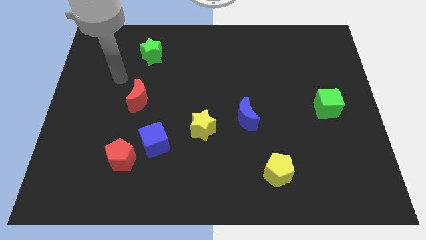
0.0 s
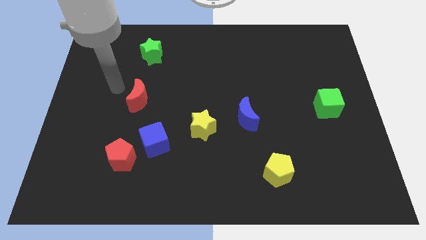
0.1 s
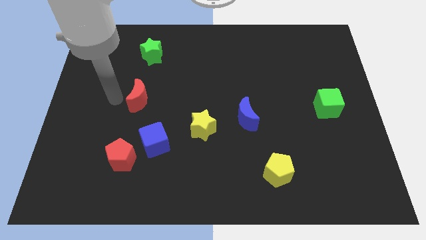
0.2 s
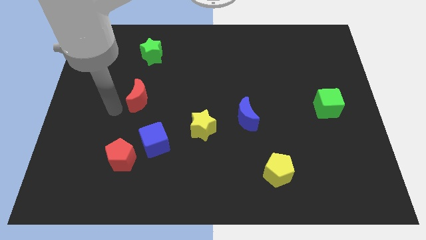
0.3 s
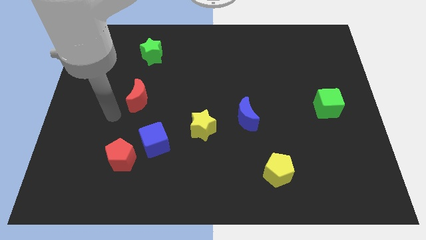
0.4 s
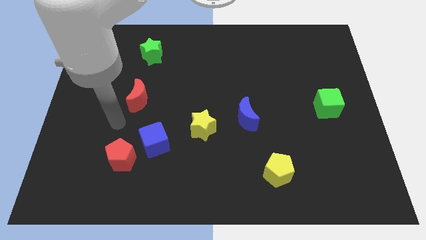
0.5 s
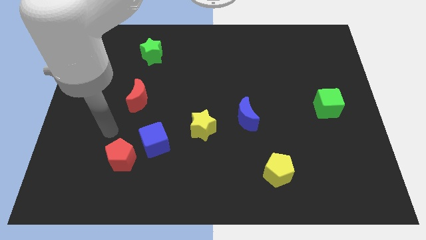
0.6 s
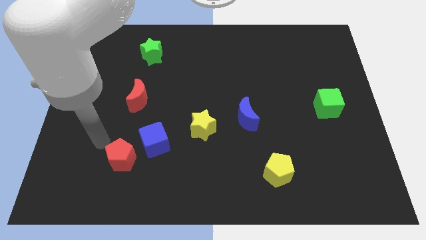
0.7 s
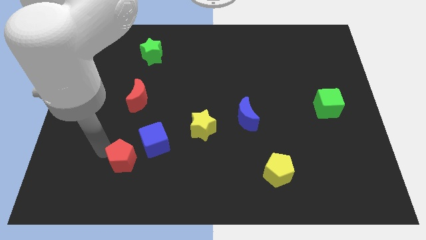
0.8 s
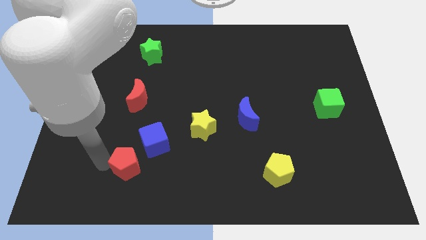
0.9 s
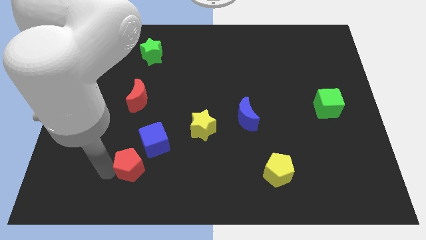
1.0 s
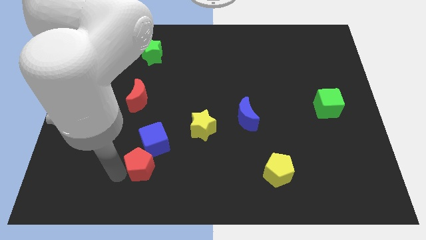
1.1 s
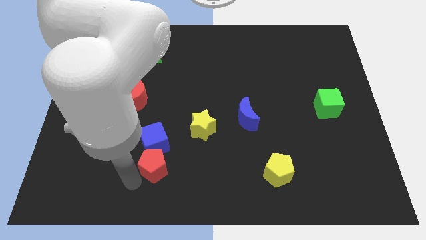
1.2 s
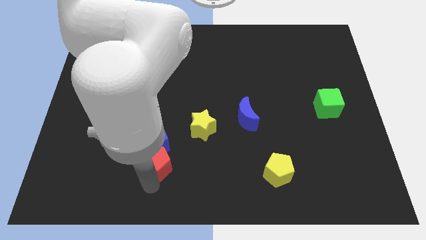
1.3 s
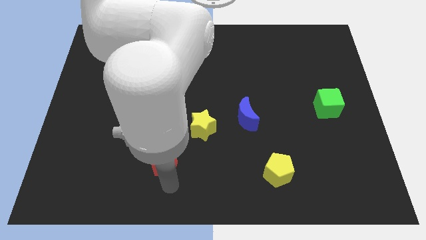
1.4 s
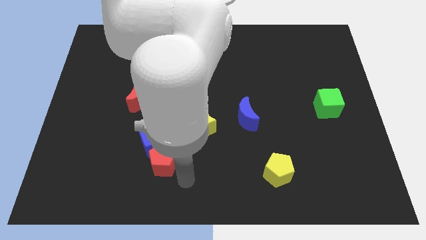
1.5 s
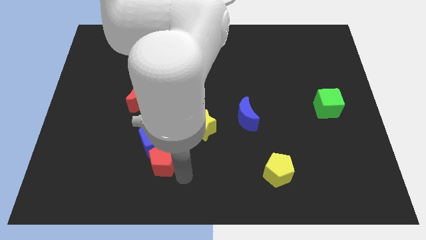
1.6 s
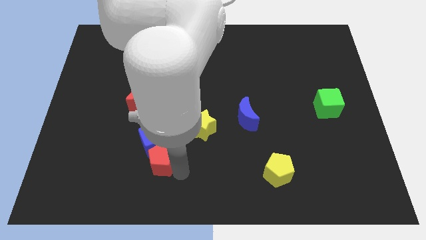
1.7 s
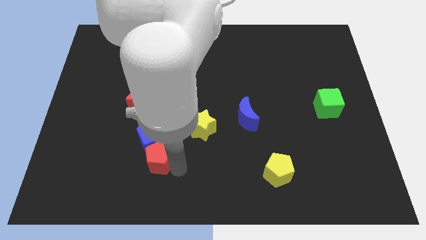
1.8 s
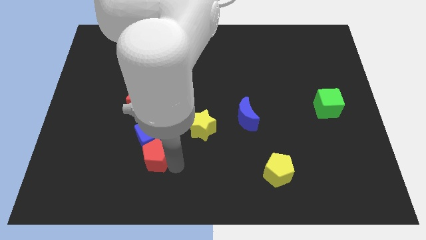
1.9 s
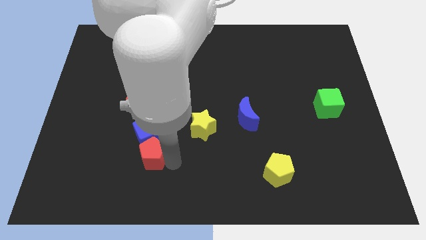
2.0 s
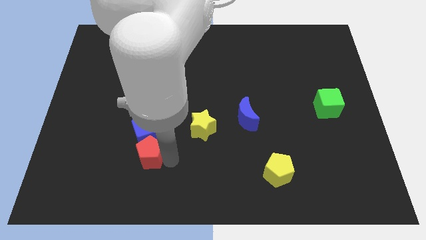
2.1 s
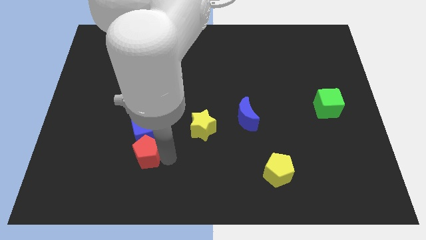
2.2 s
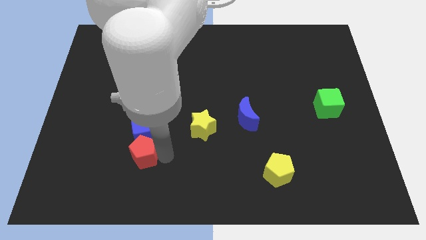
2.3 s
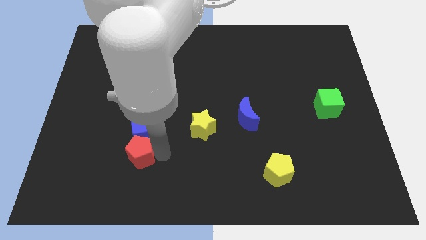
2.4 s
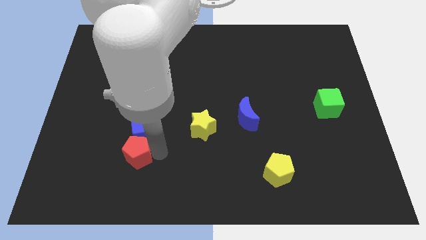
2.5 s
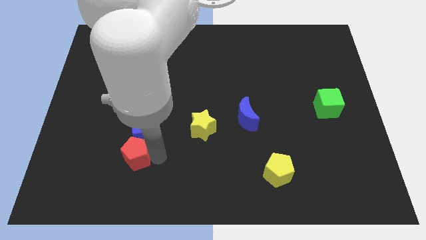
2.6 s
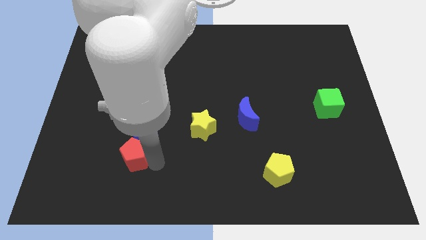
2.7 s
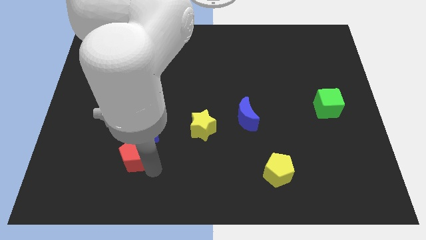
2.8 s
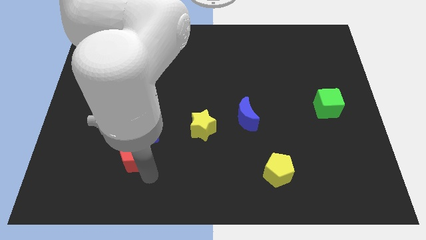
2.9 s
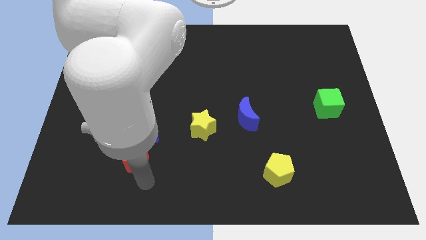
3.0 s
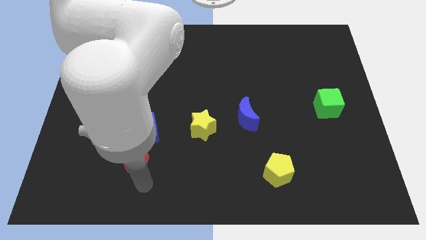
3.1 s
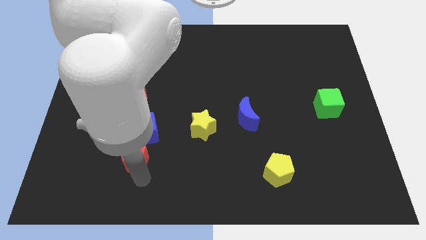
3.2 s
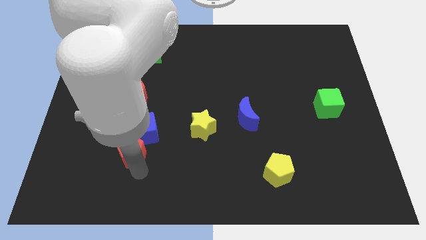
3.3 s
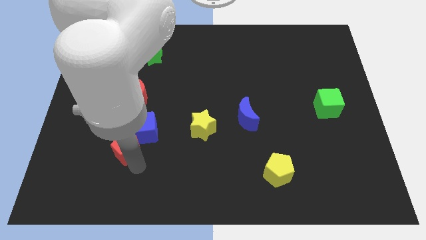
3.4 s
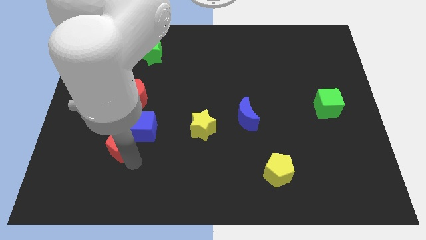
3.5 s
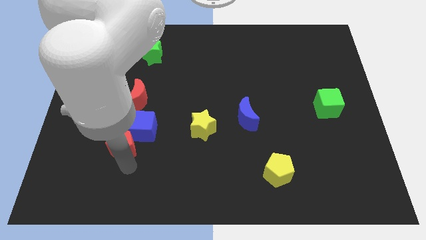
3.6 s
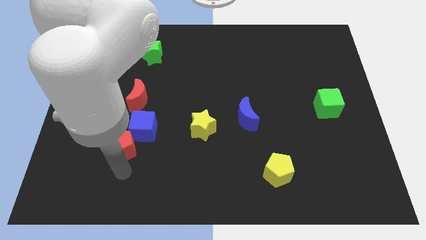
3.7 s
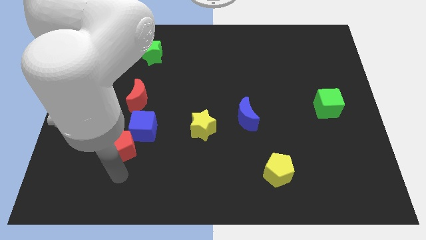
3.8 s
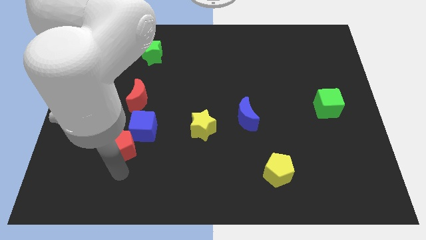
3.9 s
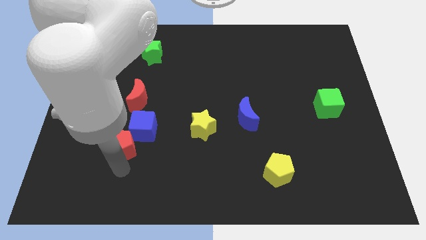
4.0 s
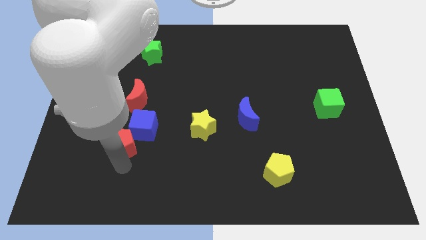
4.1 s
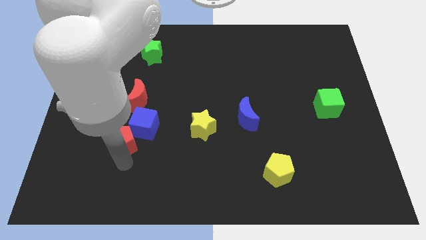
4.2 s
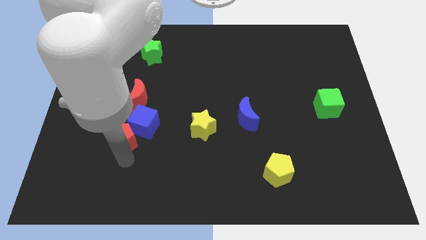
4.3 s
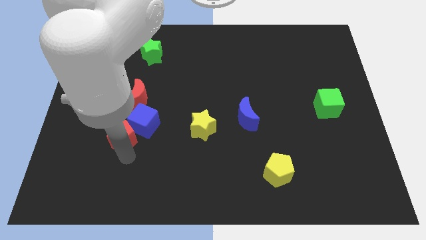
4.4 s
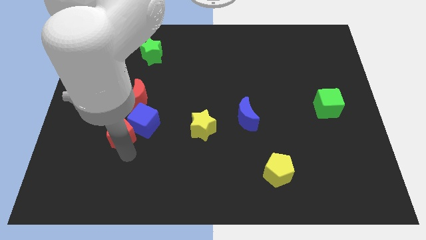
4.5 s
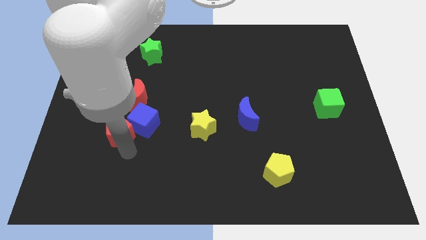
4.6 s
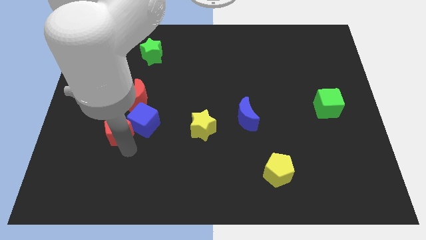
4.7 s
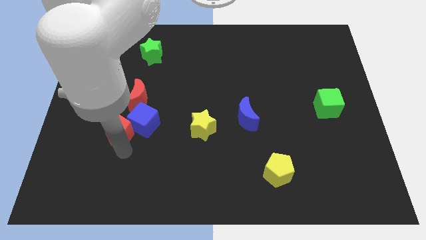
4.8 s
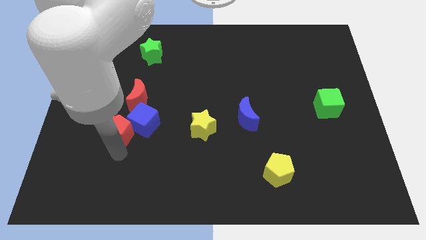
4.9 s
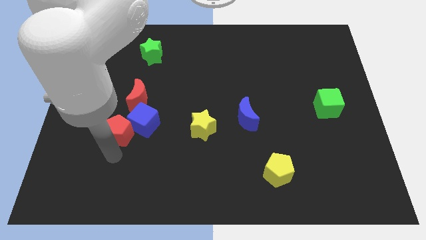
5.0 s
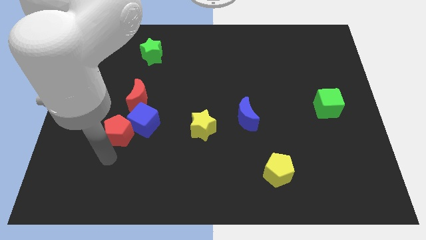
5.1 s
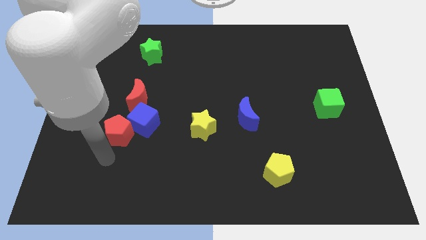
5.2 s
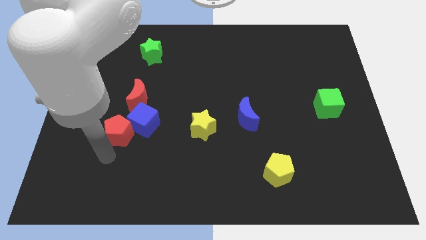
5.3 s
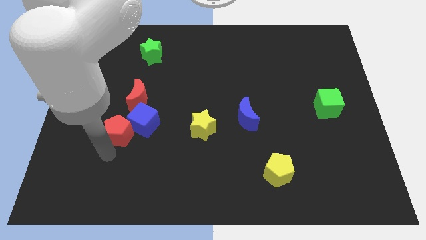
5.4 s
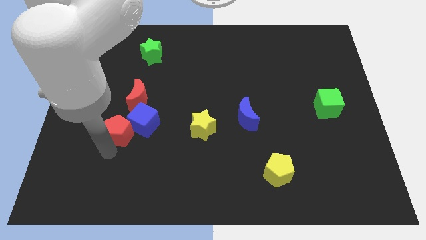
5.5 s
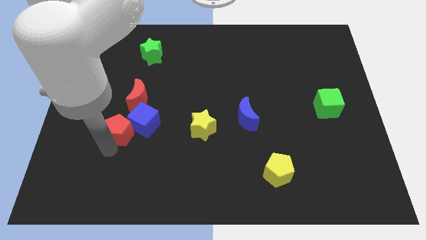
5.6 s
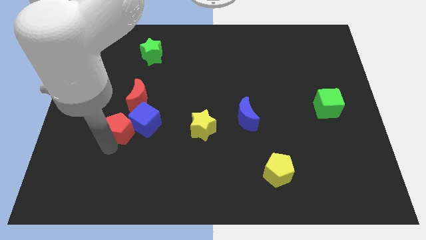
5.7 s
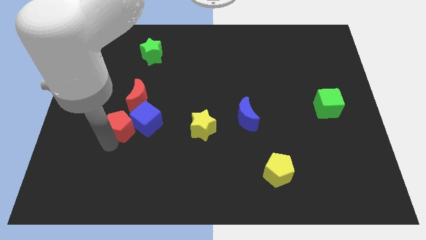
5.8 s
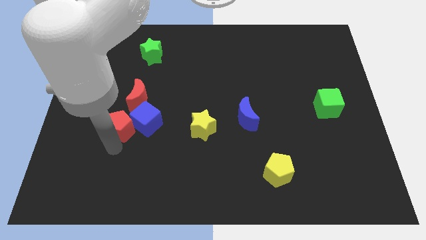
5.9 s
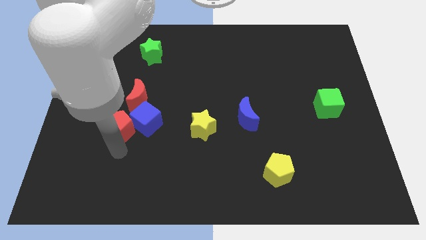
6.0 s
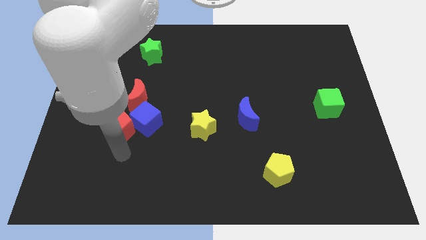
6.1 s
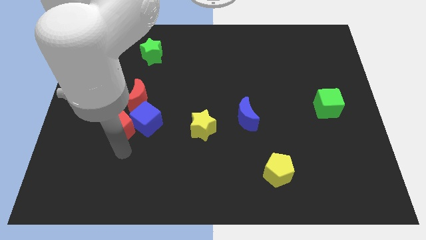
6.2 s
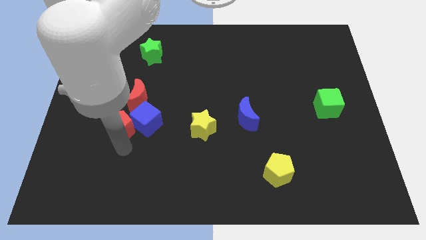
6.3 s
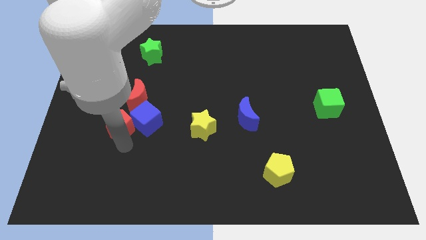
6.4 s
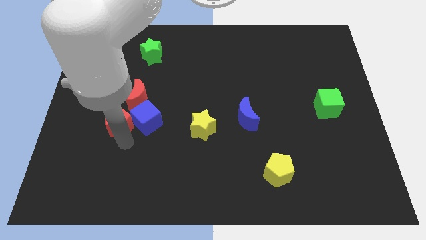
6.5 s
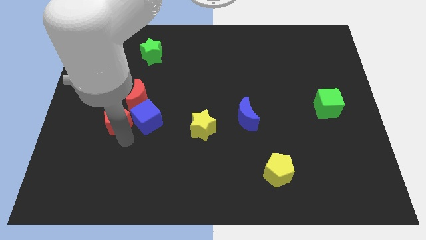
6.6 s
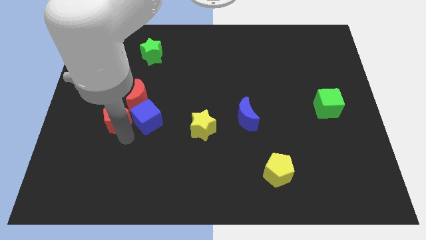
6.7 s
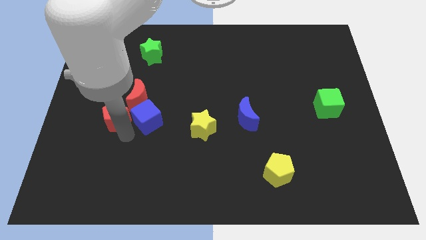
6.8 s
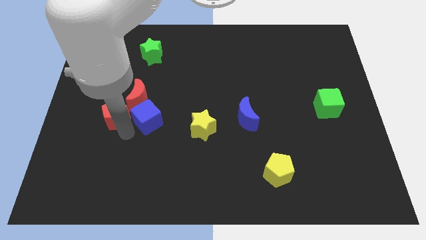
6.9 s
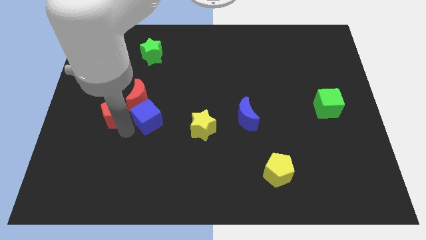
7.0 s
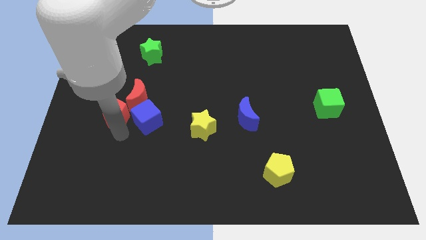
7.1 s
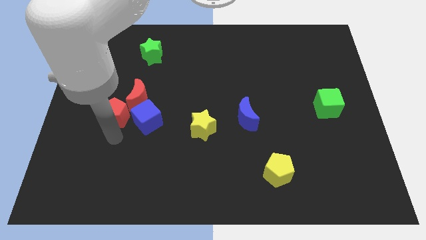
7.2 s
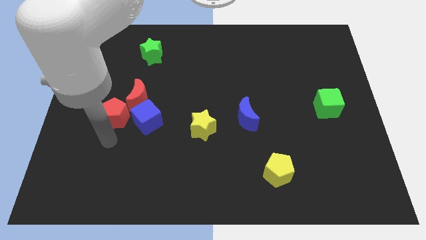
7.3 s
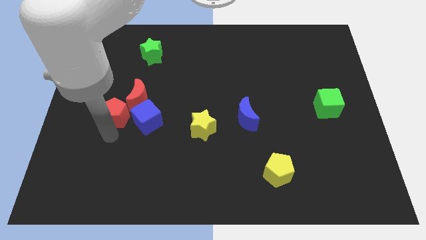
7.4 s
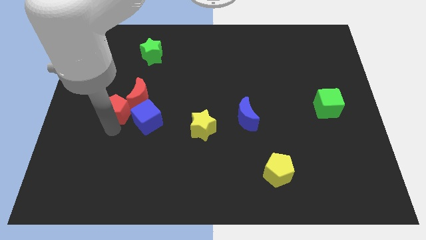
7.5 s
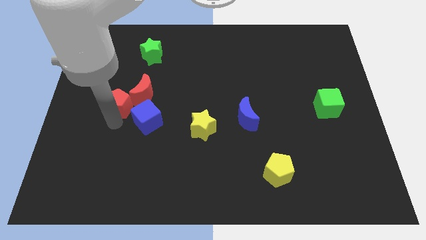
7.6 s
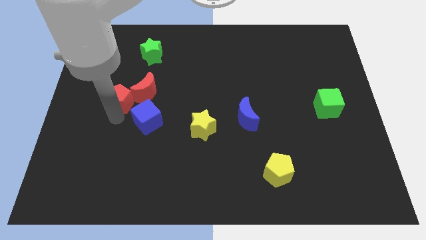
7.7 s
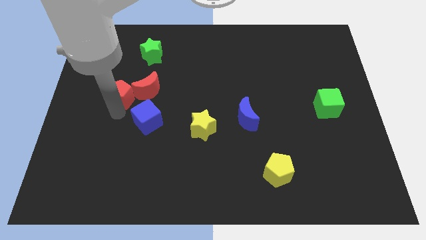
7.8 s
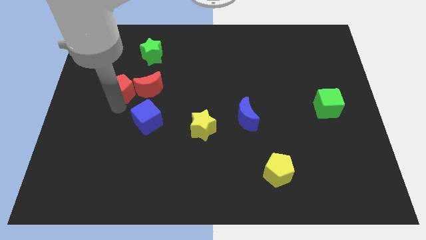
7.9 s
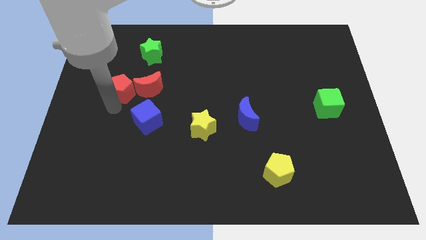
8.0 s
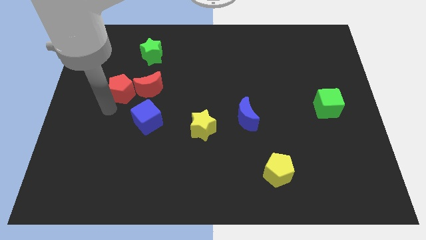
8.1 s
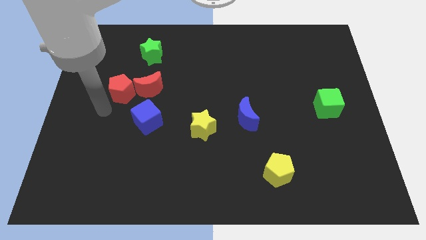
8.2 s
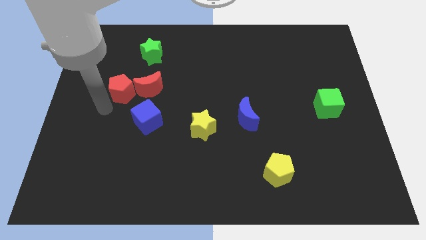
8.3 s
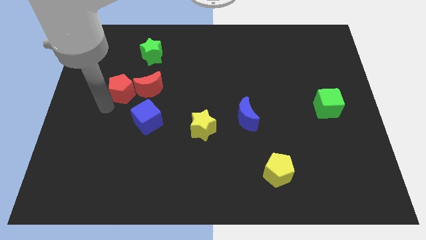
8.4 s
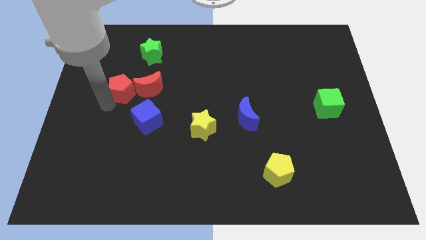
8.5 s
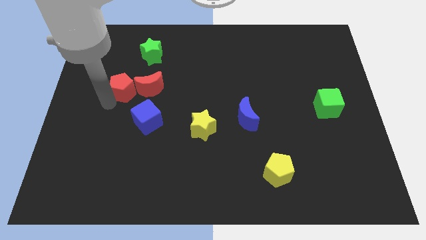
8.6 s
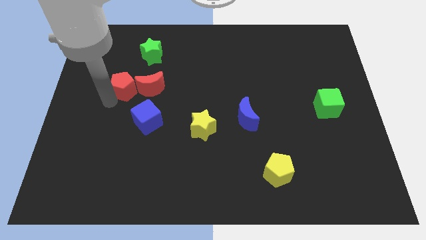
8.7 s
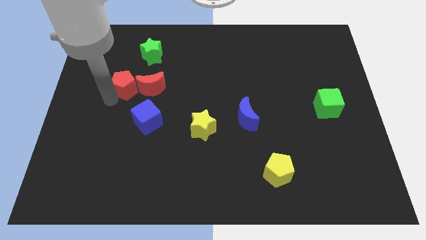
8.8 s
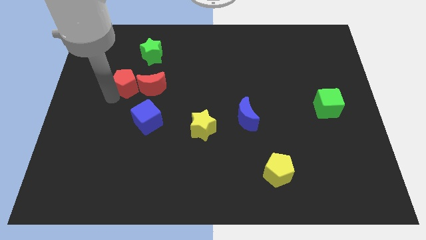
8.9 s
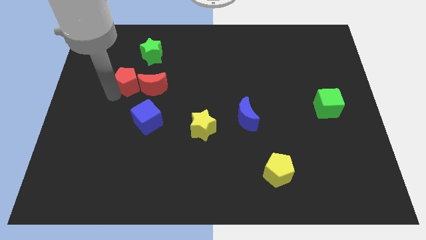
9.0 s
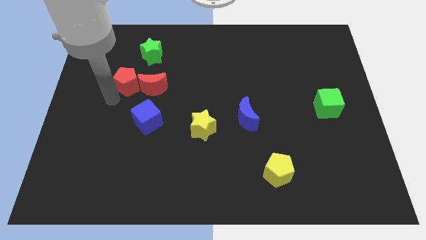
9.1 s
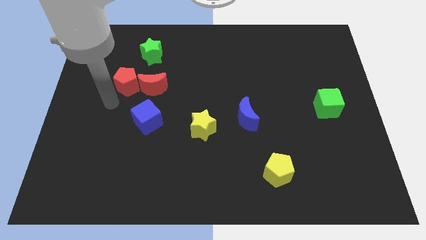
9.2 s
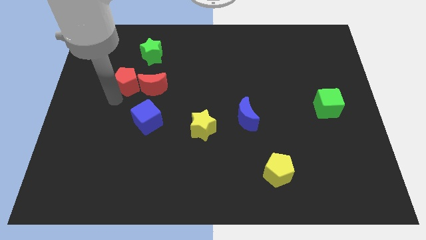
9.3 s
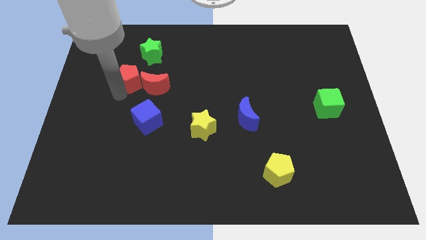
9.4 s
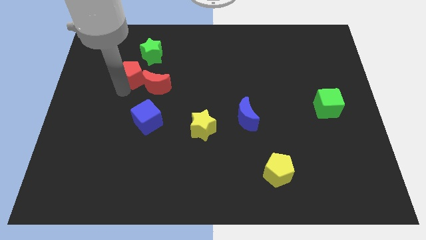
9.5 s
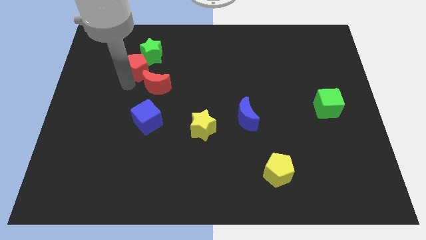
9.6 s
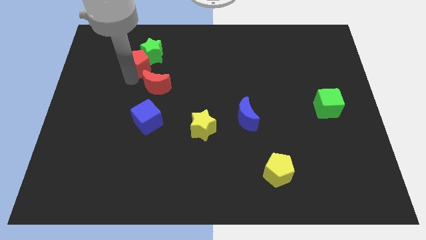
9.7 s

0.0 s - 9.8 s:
slide the red pentagon to the green star
